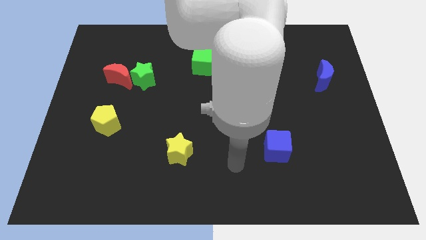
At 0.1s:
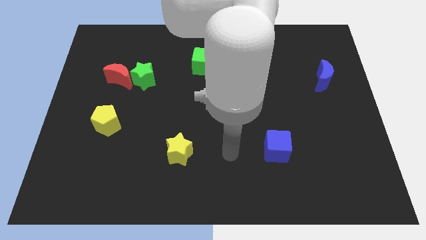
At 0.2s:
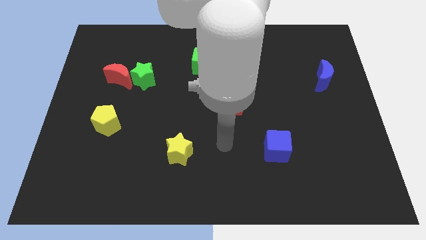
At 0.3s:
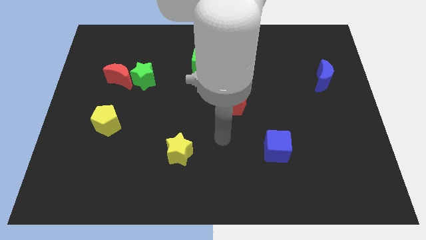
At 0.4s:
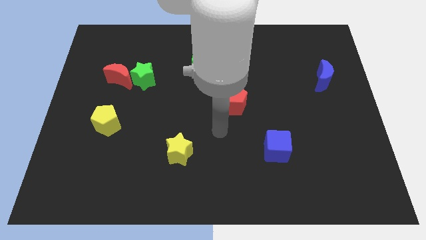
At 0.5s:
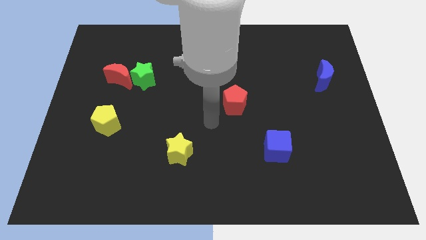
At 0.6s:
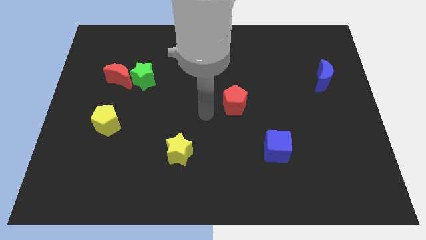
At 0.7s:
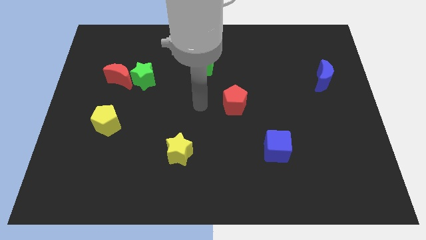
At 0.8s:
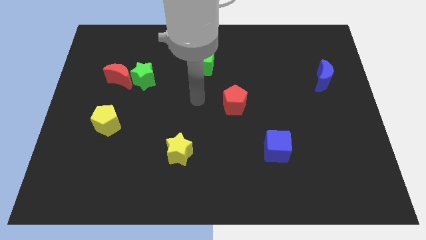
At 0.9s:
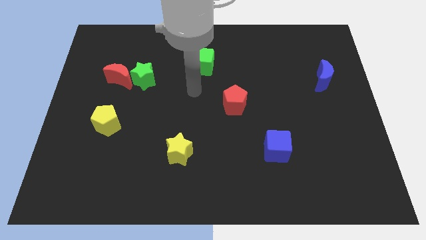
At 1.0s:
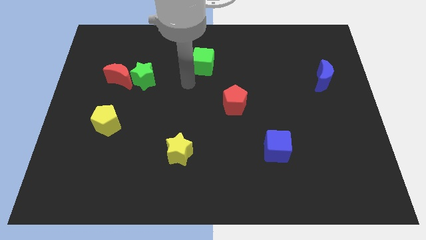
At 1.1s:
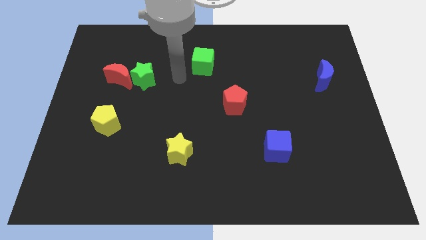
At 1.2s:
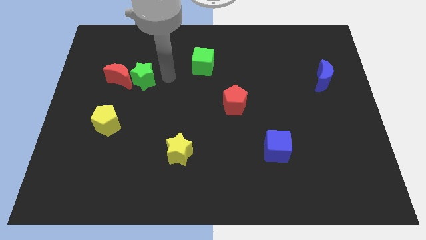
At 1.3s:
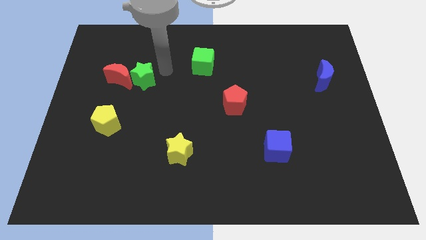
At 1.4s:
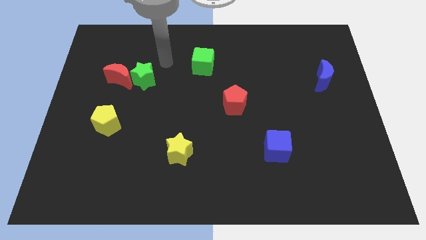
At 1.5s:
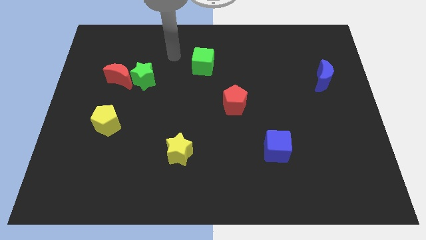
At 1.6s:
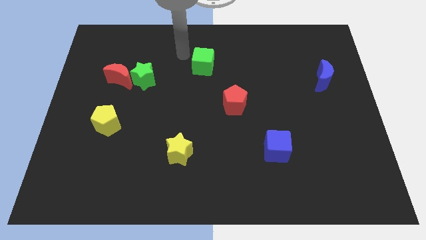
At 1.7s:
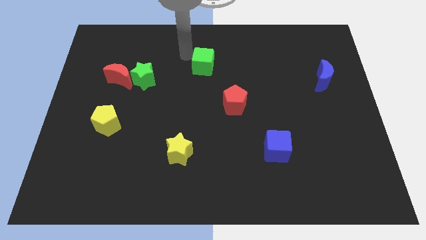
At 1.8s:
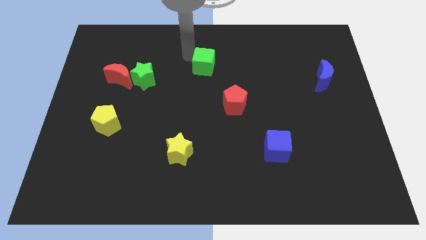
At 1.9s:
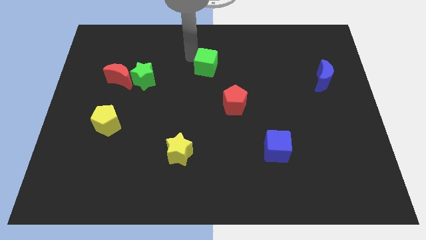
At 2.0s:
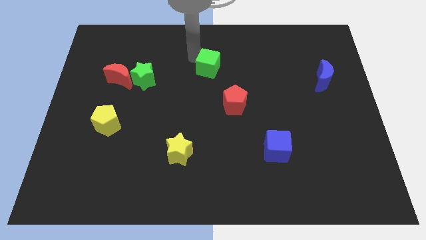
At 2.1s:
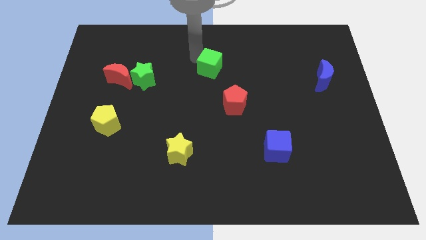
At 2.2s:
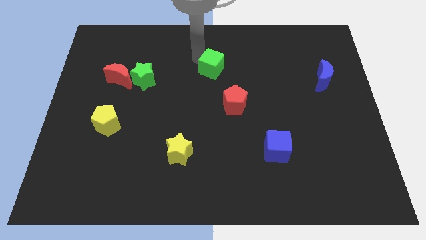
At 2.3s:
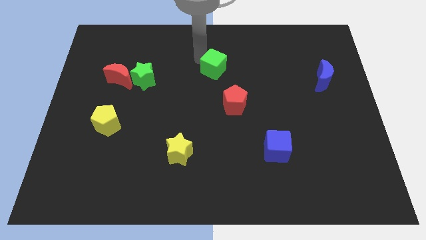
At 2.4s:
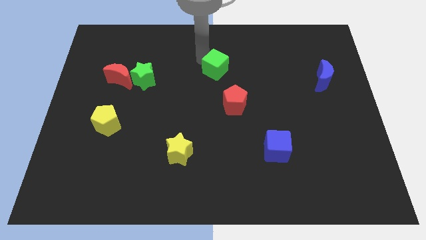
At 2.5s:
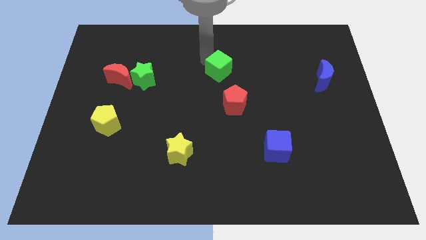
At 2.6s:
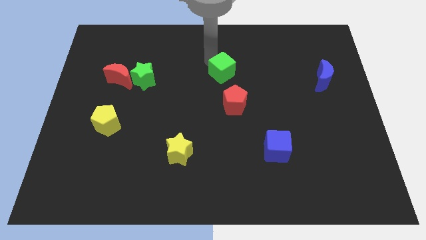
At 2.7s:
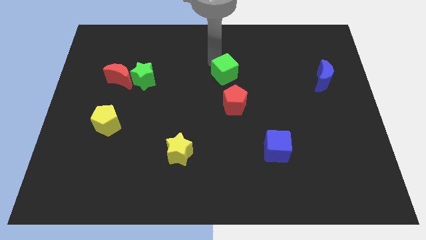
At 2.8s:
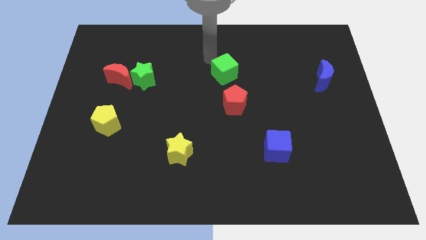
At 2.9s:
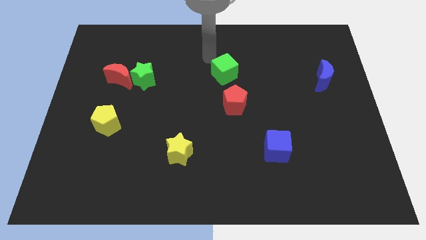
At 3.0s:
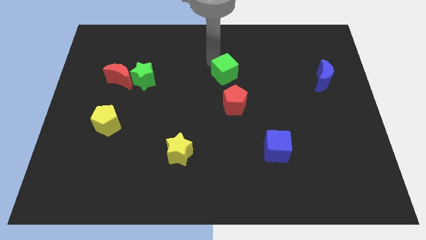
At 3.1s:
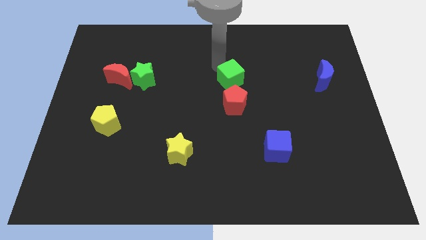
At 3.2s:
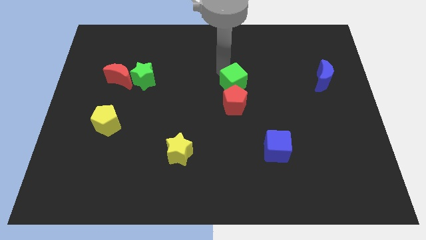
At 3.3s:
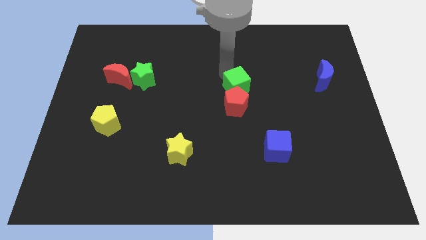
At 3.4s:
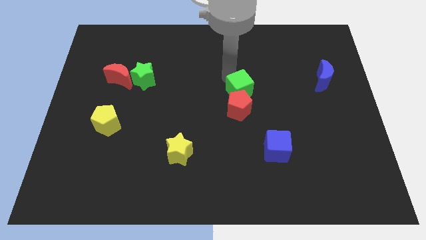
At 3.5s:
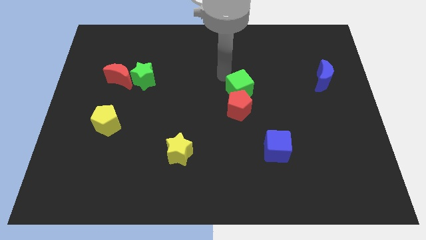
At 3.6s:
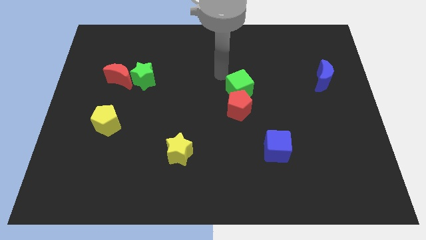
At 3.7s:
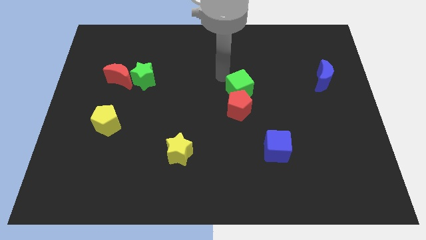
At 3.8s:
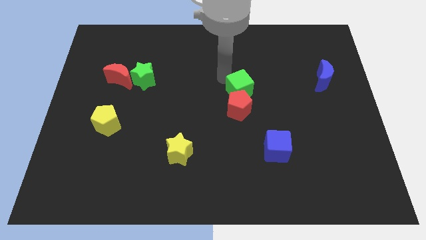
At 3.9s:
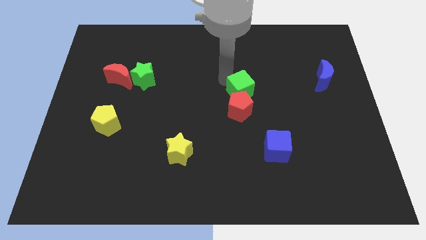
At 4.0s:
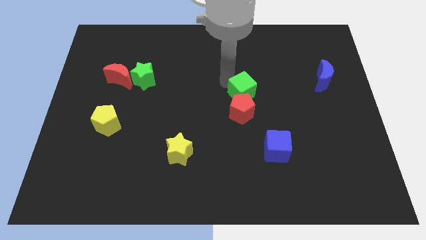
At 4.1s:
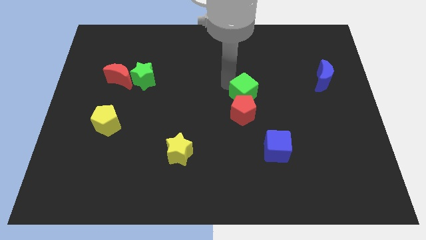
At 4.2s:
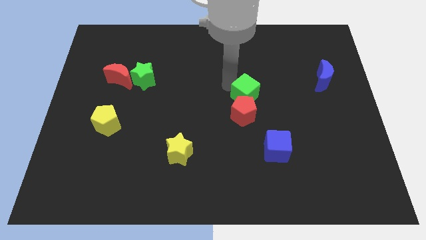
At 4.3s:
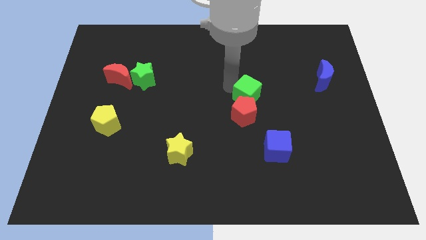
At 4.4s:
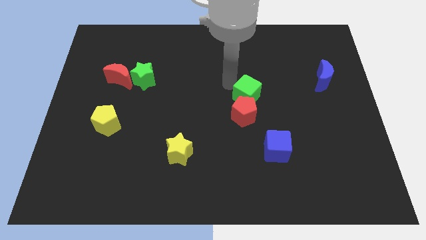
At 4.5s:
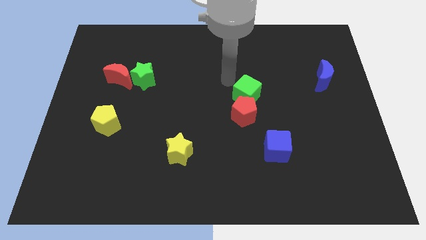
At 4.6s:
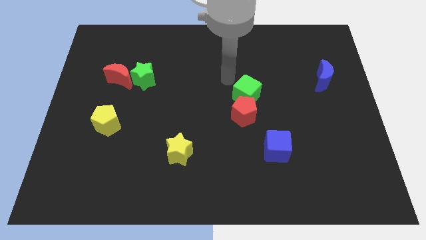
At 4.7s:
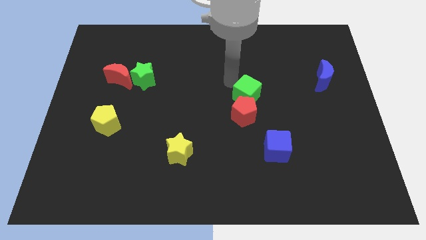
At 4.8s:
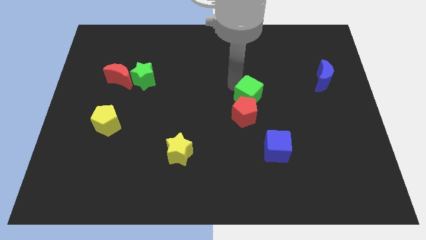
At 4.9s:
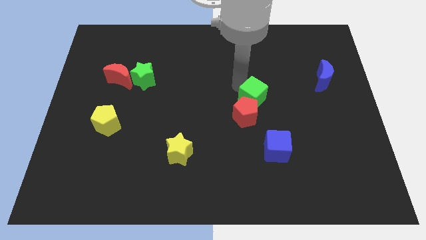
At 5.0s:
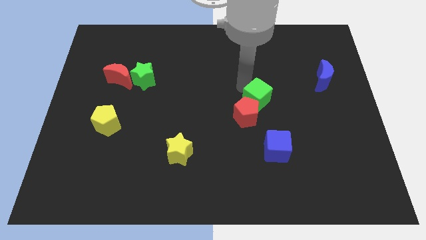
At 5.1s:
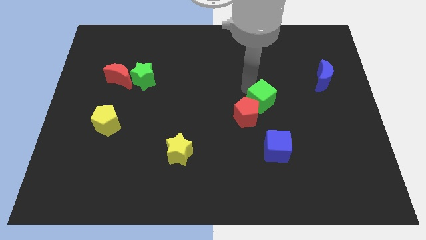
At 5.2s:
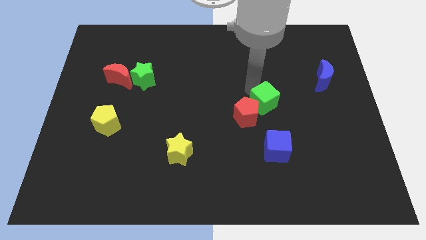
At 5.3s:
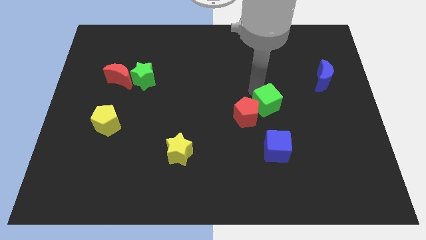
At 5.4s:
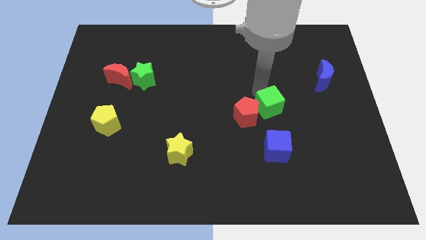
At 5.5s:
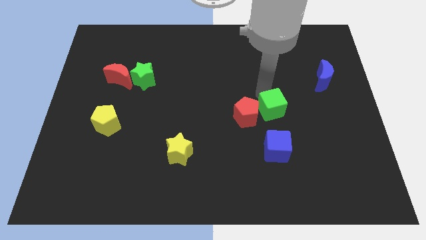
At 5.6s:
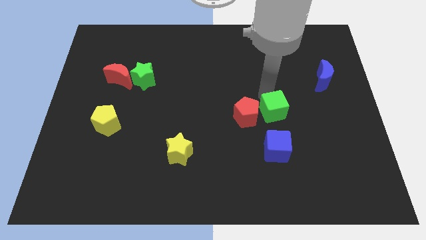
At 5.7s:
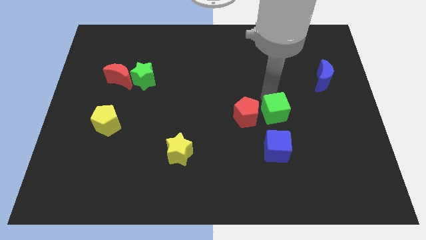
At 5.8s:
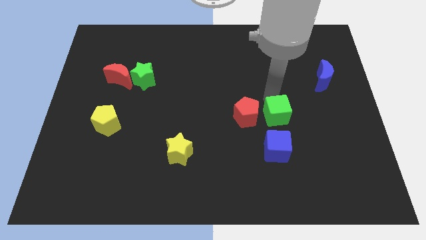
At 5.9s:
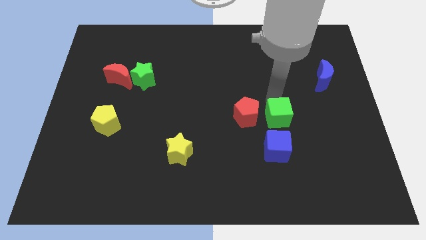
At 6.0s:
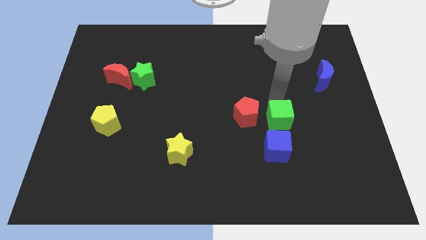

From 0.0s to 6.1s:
push the green cube diagonally down and to the right of the red pentagon
